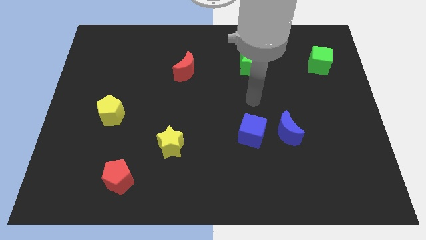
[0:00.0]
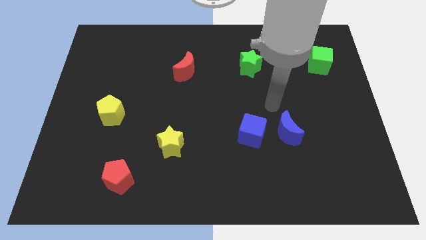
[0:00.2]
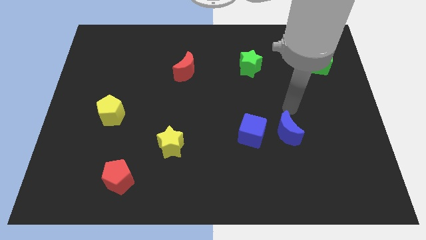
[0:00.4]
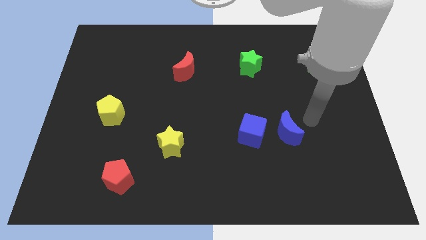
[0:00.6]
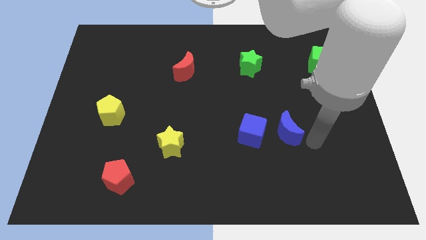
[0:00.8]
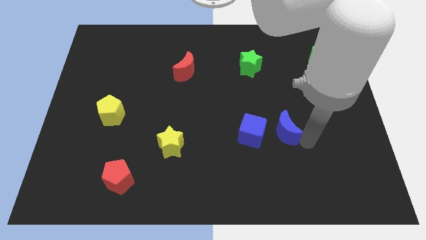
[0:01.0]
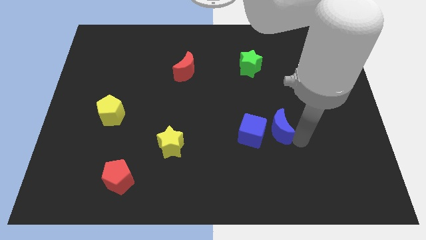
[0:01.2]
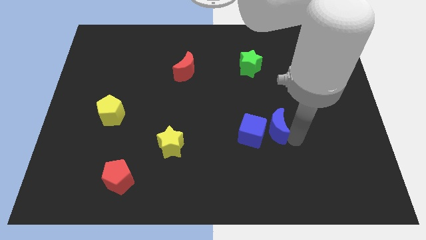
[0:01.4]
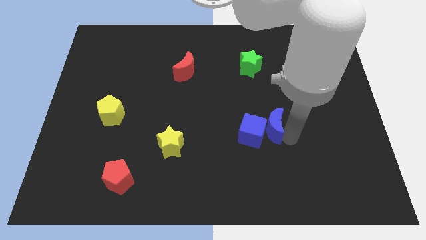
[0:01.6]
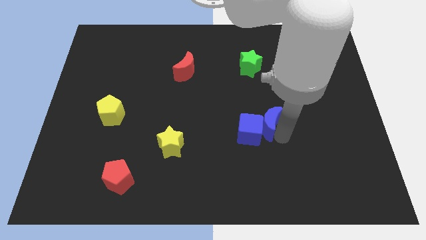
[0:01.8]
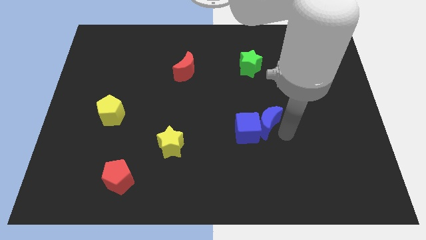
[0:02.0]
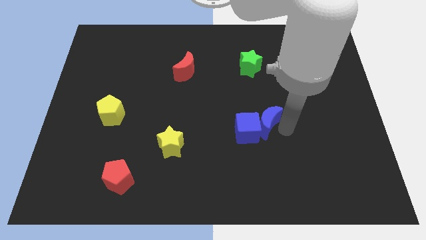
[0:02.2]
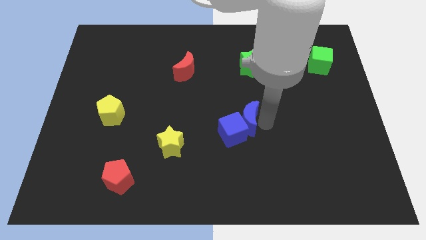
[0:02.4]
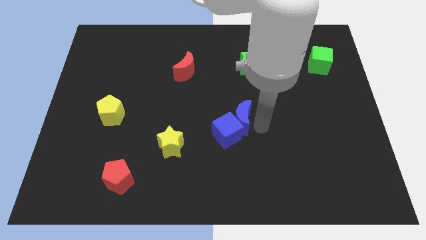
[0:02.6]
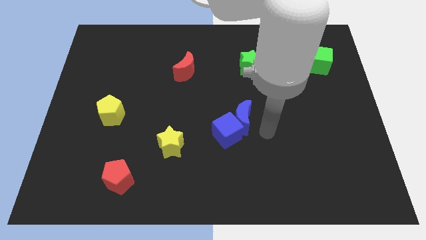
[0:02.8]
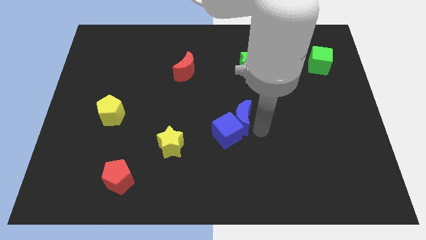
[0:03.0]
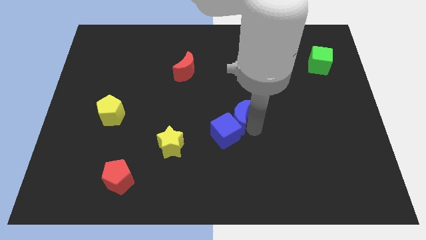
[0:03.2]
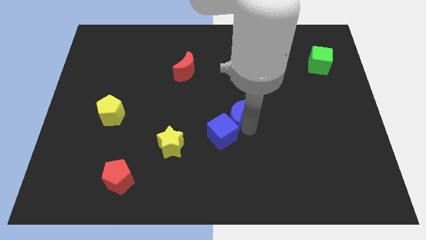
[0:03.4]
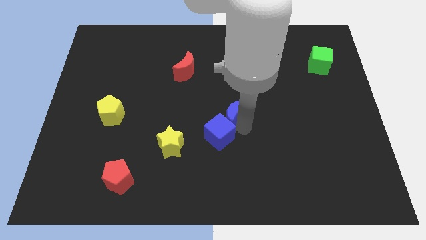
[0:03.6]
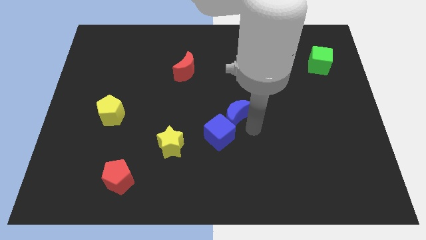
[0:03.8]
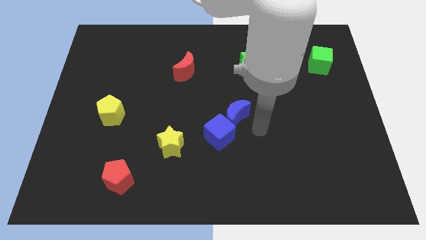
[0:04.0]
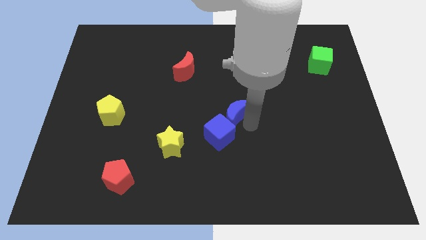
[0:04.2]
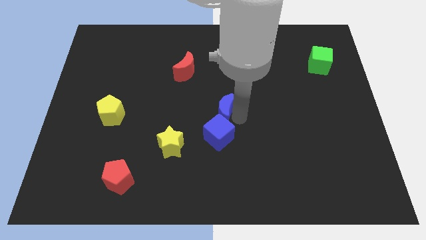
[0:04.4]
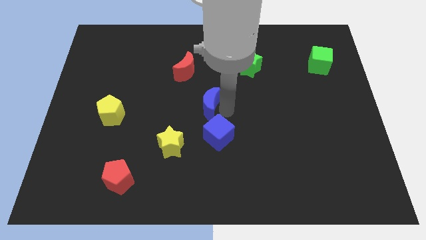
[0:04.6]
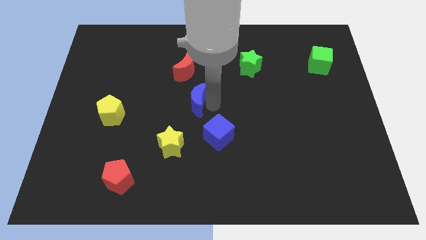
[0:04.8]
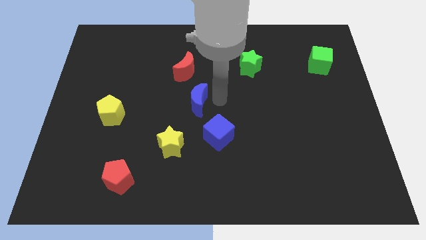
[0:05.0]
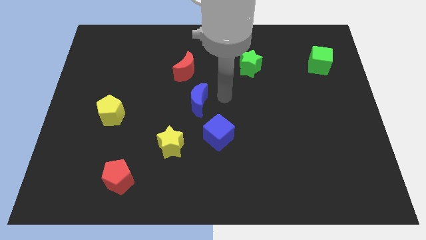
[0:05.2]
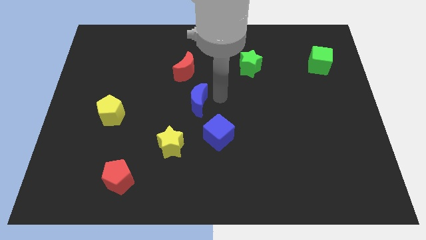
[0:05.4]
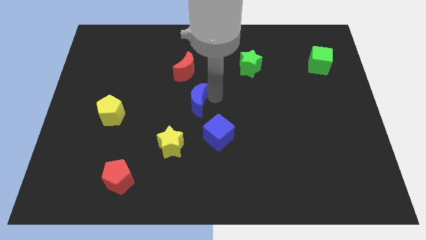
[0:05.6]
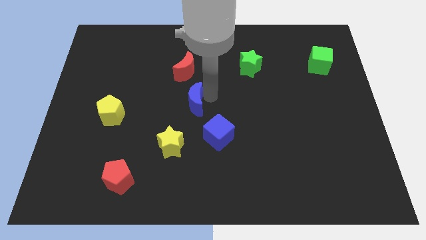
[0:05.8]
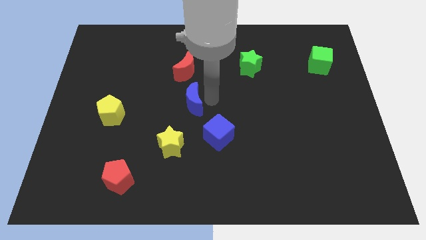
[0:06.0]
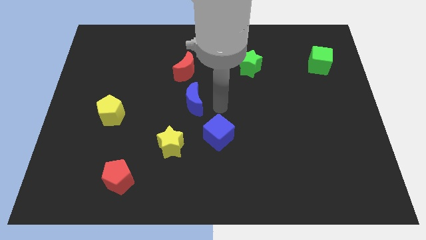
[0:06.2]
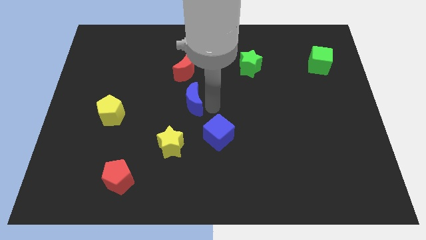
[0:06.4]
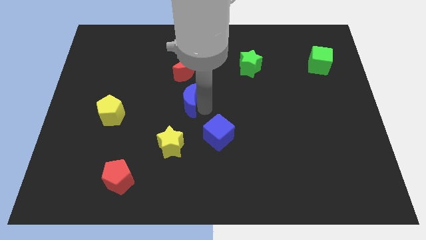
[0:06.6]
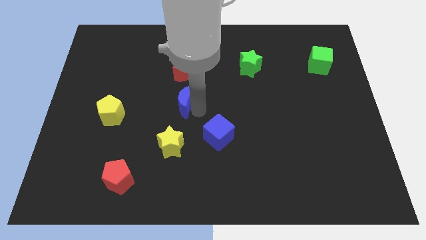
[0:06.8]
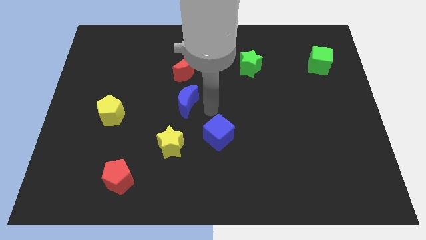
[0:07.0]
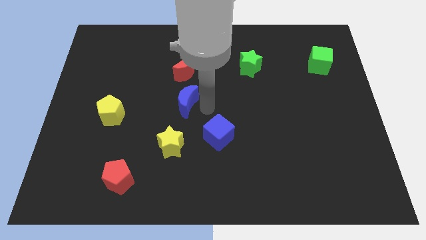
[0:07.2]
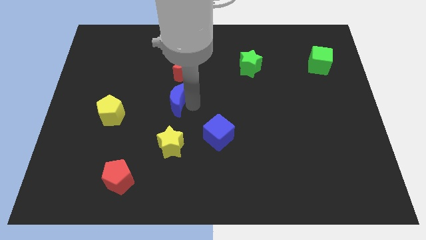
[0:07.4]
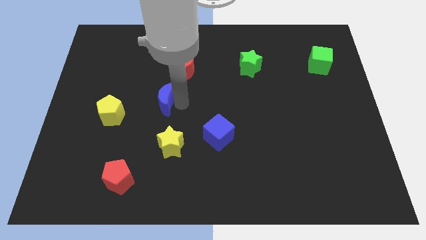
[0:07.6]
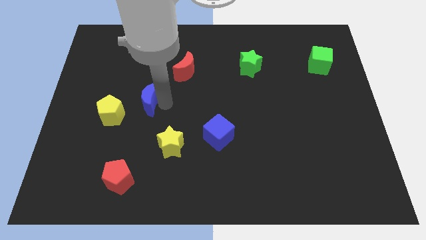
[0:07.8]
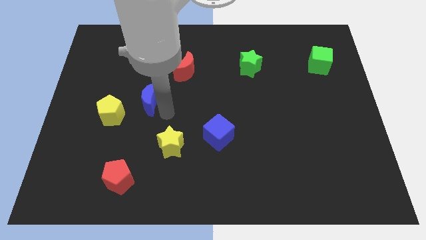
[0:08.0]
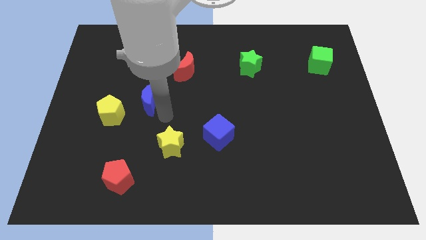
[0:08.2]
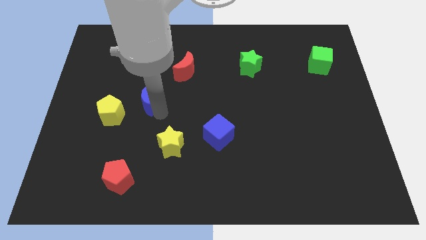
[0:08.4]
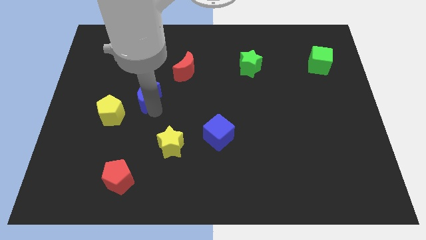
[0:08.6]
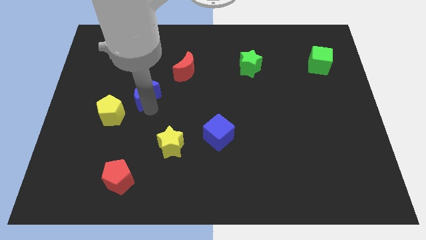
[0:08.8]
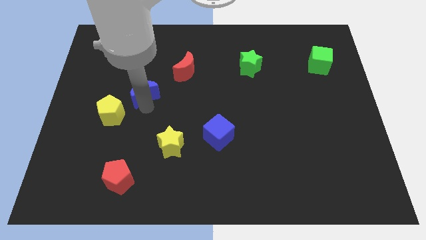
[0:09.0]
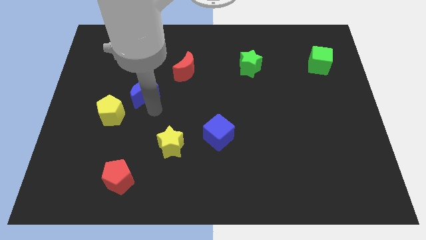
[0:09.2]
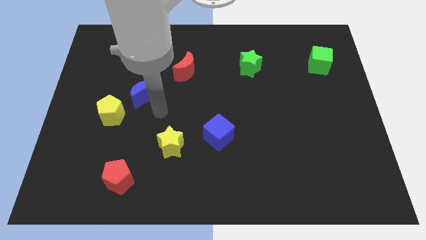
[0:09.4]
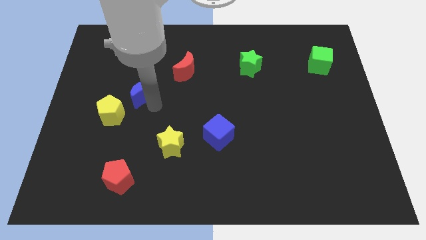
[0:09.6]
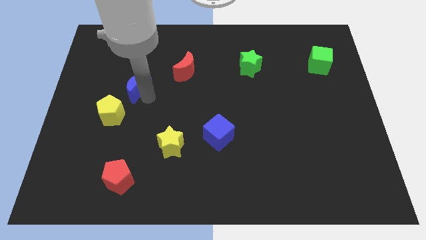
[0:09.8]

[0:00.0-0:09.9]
move the blue moon to the top side of the yellow pentagon

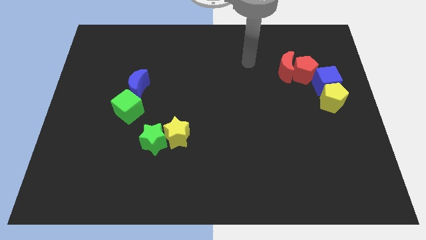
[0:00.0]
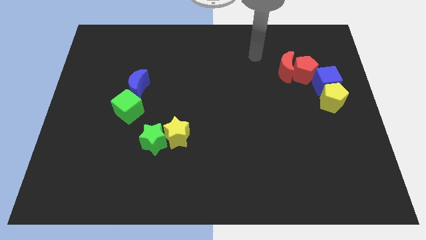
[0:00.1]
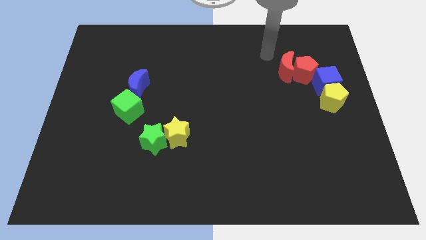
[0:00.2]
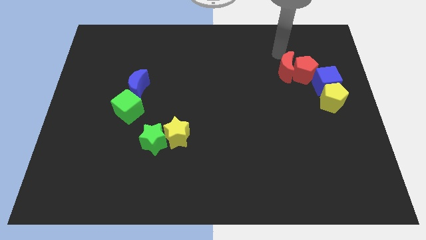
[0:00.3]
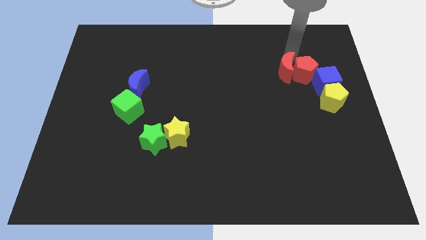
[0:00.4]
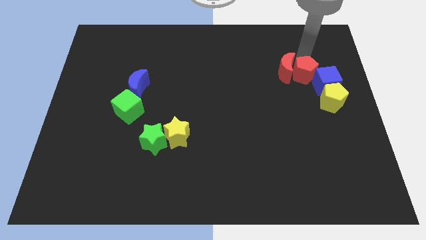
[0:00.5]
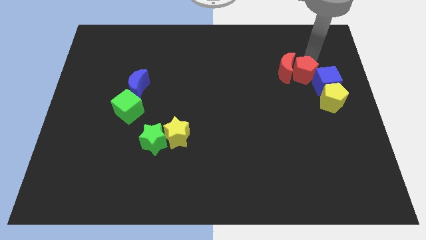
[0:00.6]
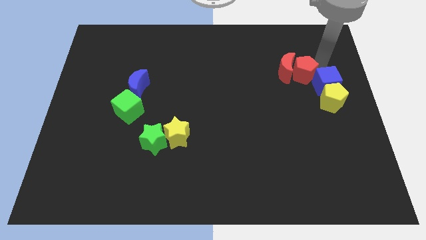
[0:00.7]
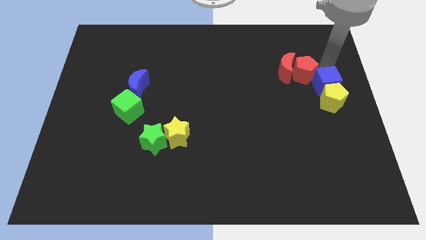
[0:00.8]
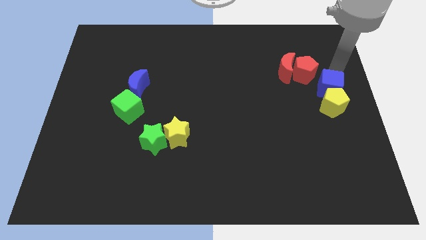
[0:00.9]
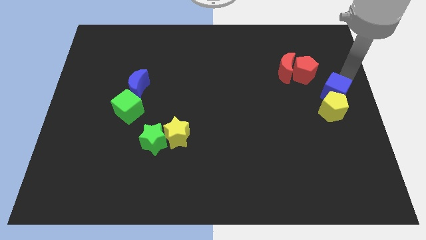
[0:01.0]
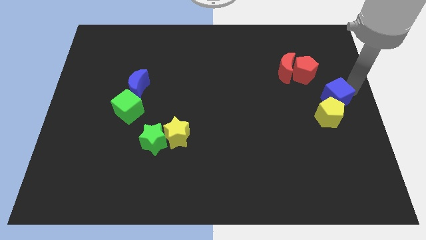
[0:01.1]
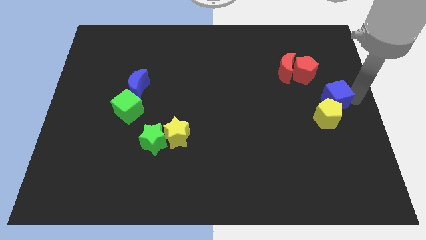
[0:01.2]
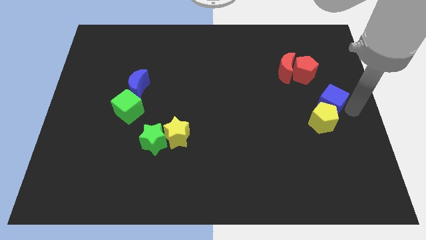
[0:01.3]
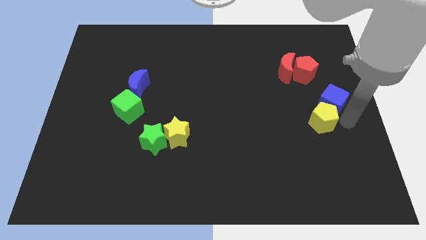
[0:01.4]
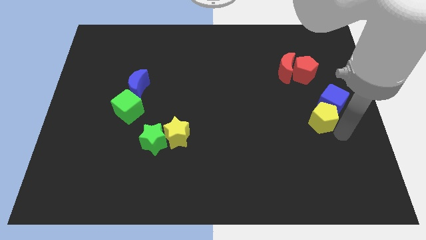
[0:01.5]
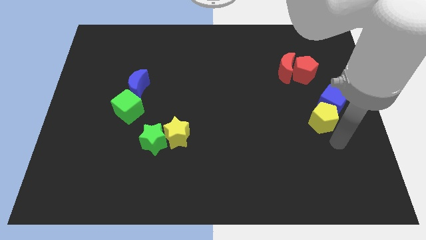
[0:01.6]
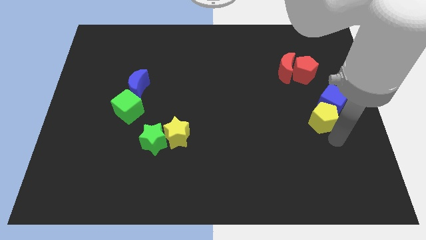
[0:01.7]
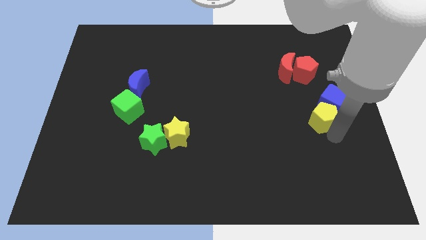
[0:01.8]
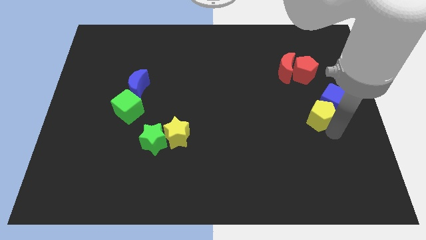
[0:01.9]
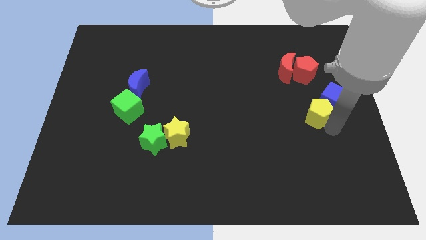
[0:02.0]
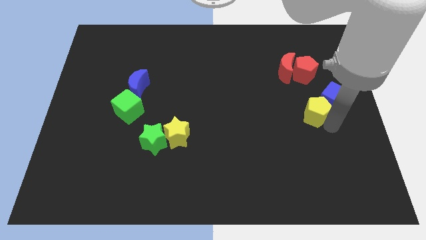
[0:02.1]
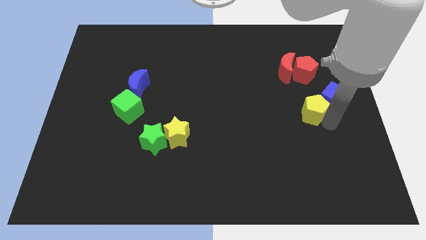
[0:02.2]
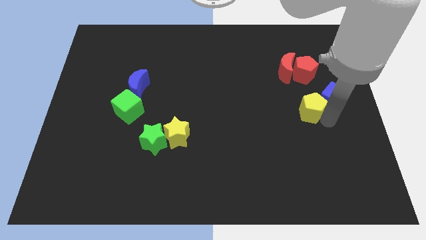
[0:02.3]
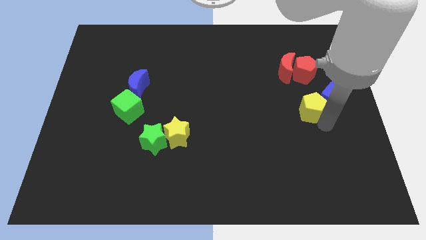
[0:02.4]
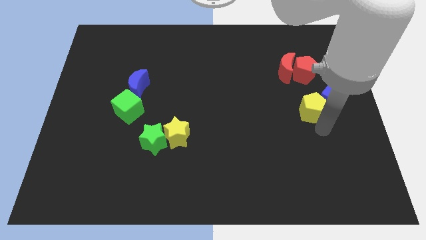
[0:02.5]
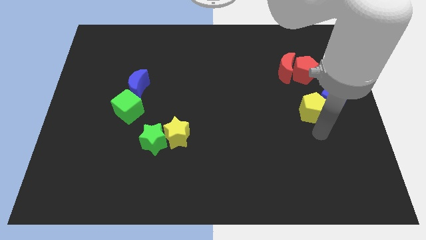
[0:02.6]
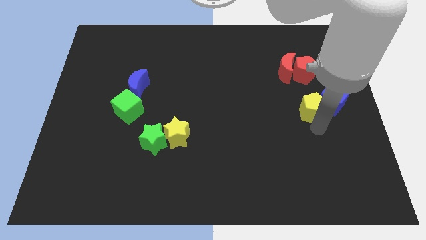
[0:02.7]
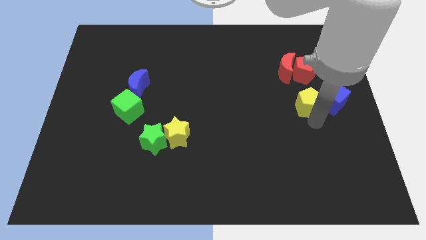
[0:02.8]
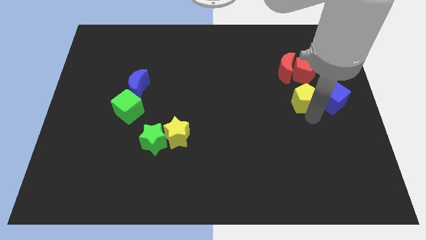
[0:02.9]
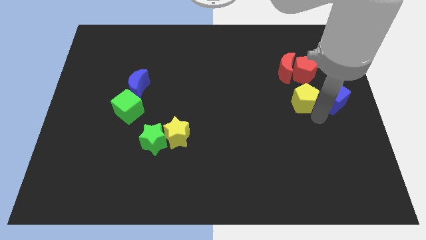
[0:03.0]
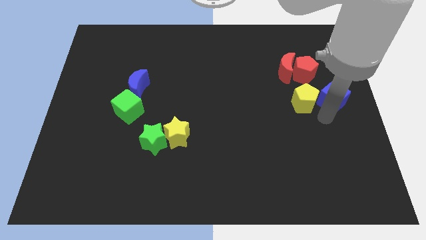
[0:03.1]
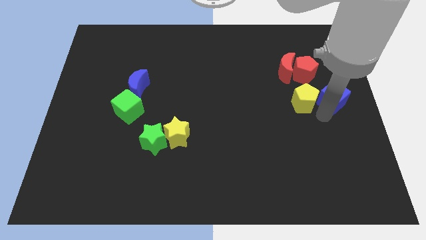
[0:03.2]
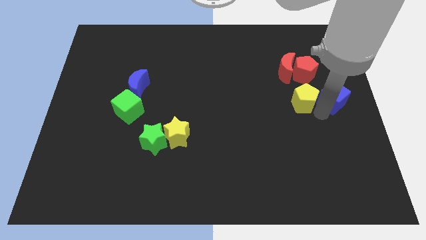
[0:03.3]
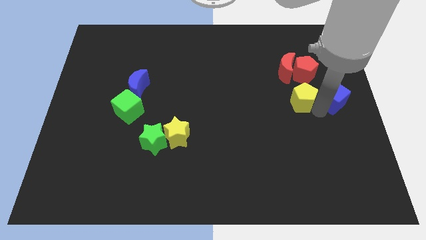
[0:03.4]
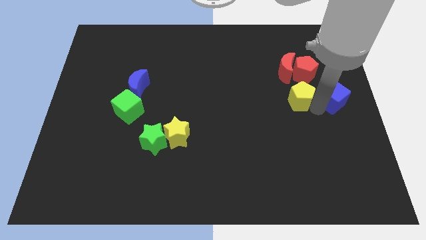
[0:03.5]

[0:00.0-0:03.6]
move the yellow pentagon to the bottom left of the red pentagon
